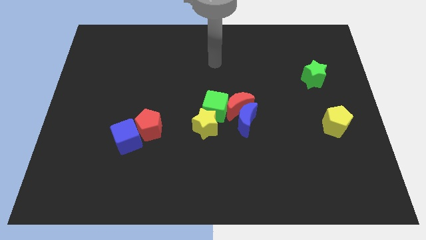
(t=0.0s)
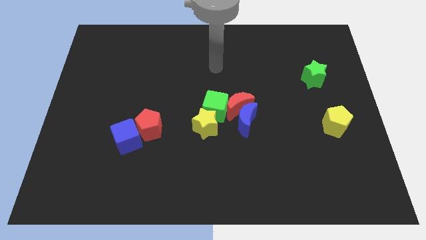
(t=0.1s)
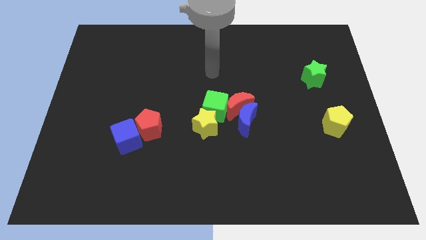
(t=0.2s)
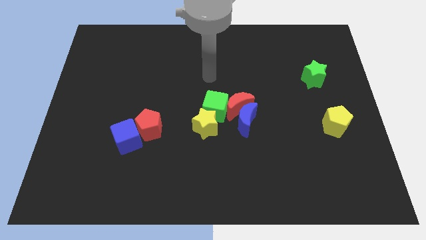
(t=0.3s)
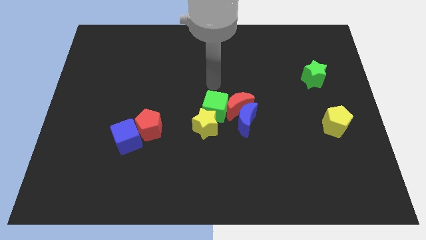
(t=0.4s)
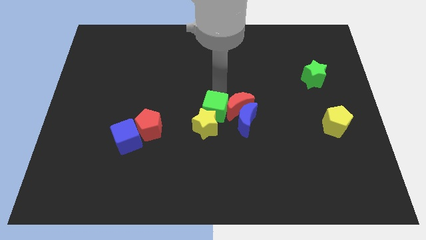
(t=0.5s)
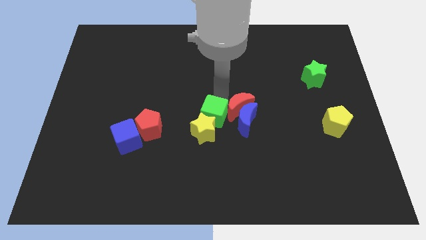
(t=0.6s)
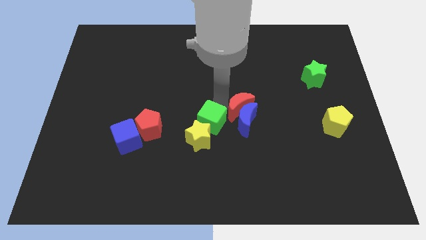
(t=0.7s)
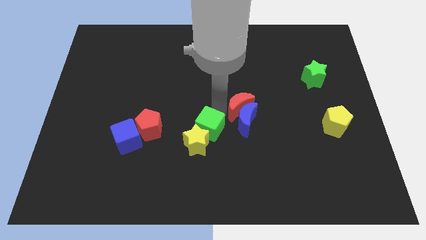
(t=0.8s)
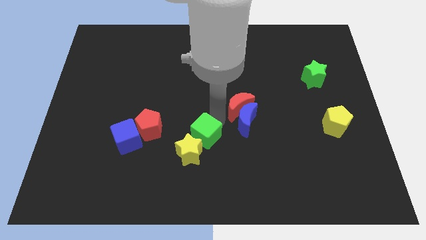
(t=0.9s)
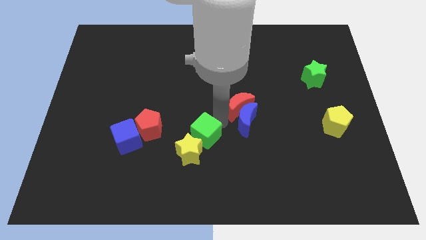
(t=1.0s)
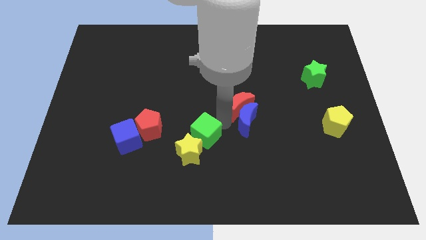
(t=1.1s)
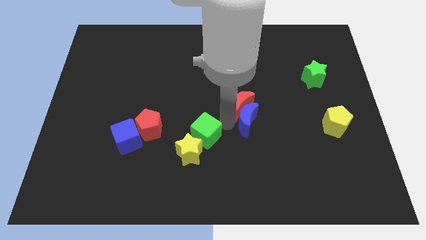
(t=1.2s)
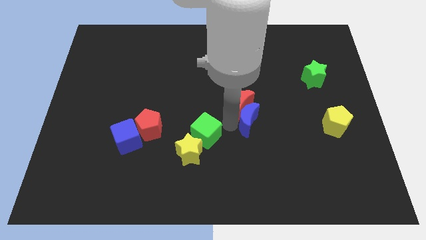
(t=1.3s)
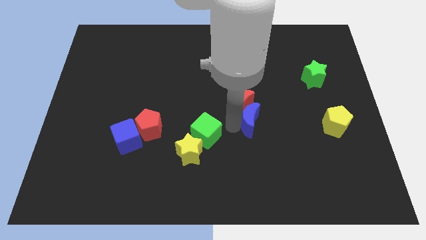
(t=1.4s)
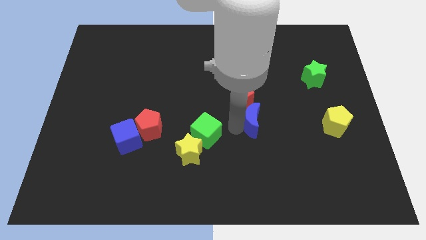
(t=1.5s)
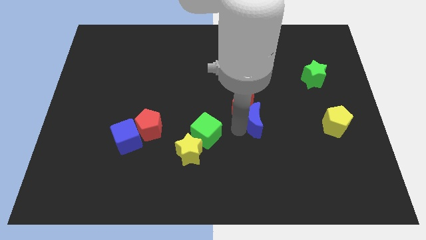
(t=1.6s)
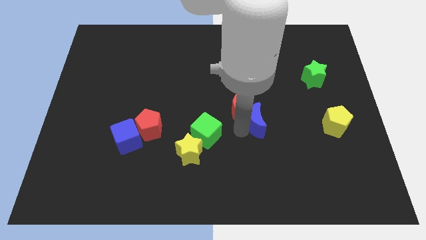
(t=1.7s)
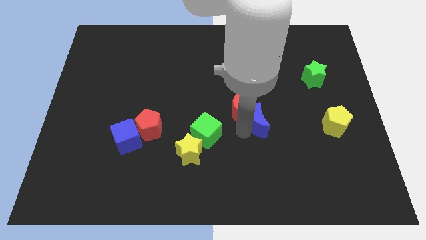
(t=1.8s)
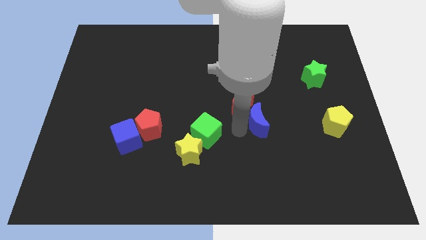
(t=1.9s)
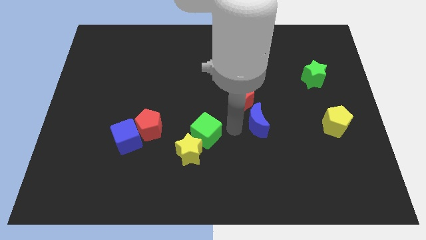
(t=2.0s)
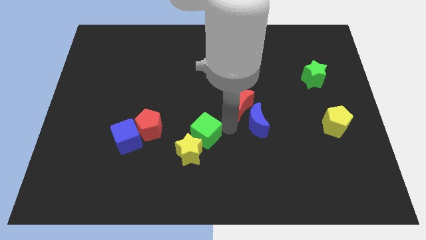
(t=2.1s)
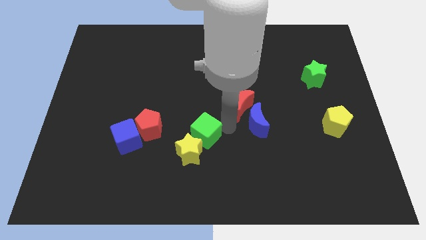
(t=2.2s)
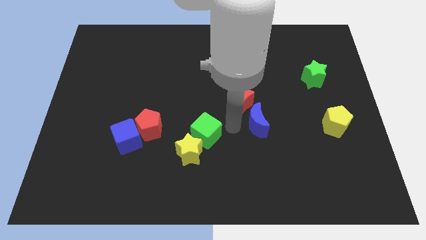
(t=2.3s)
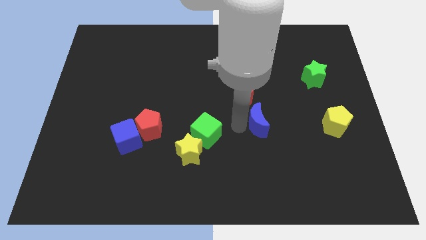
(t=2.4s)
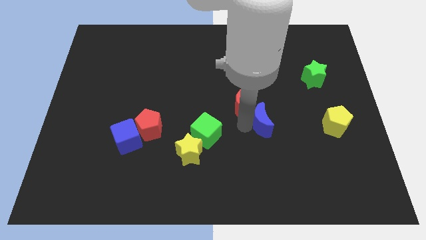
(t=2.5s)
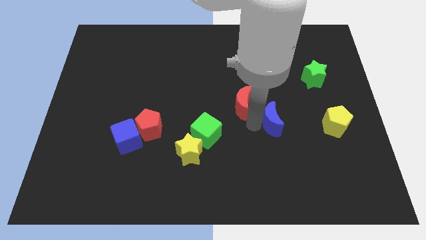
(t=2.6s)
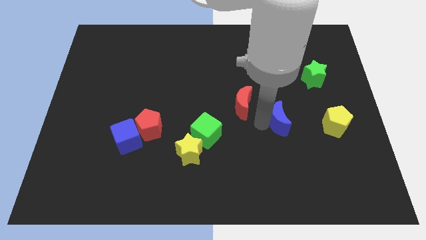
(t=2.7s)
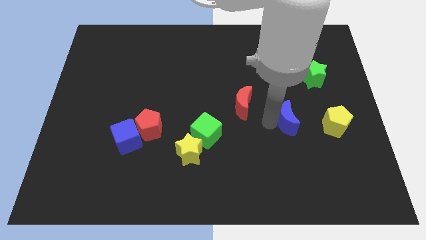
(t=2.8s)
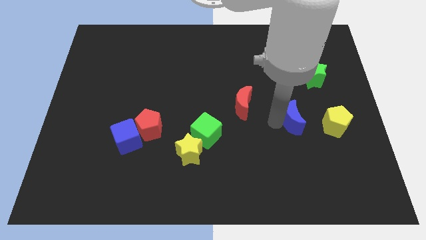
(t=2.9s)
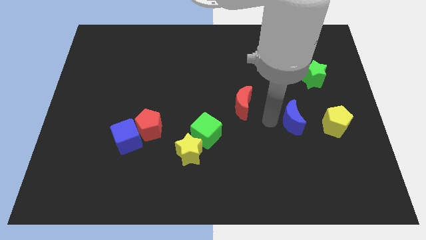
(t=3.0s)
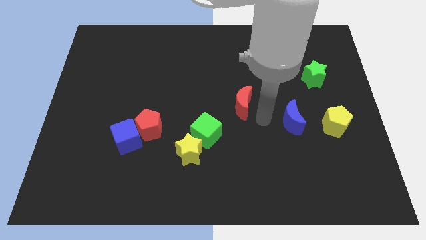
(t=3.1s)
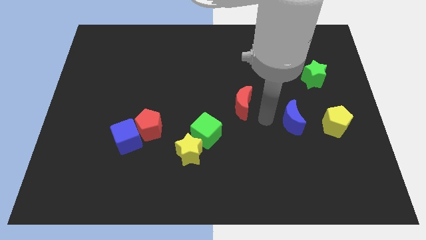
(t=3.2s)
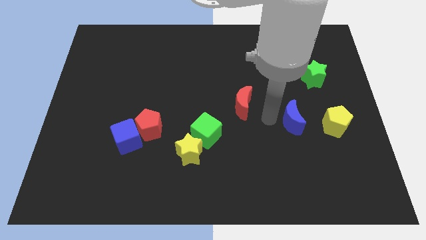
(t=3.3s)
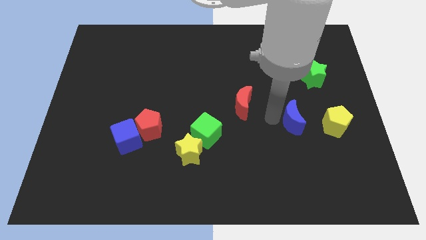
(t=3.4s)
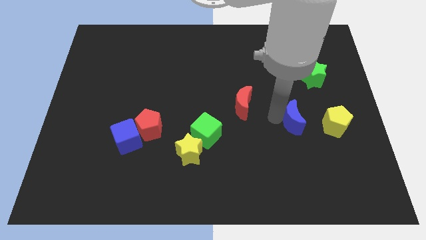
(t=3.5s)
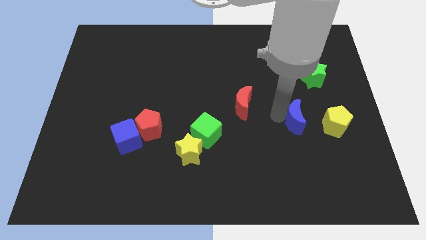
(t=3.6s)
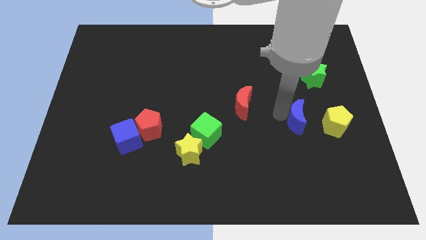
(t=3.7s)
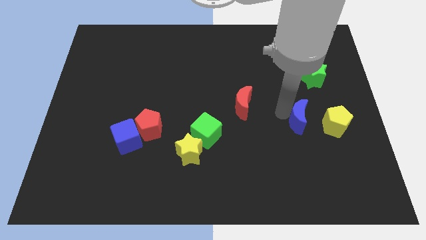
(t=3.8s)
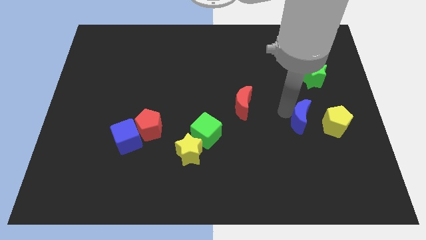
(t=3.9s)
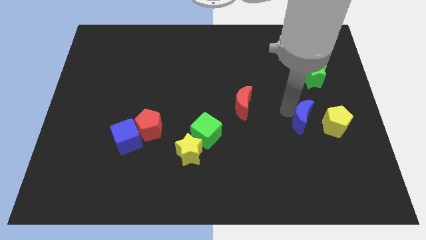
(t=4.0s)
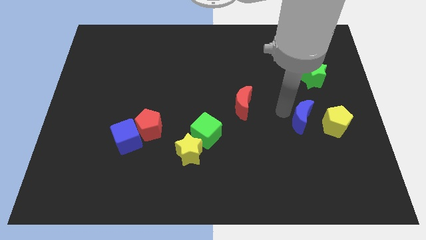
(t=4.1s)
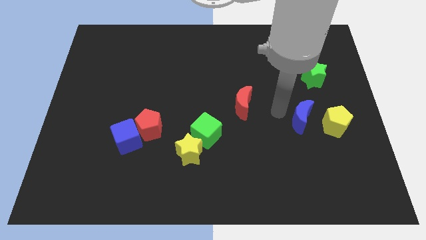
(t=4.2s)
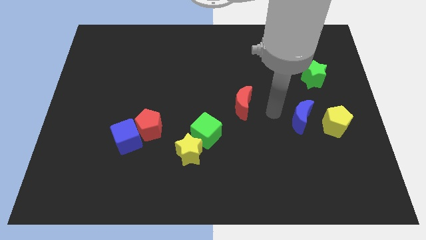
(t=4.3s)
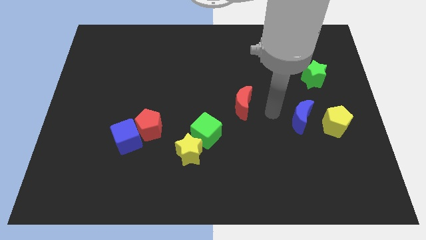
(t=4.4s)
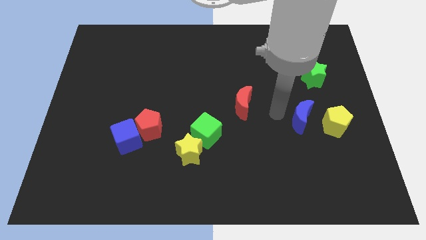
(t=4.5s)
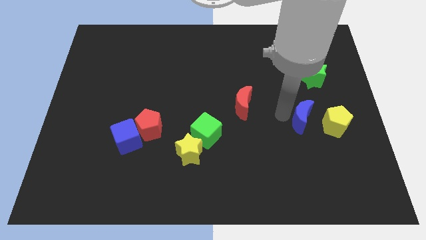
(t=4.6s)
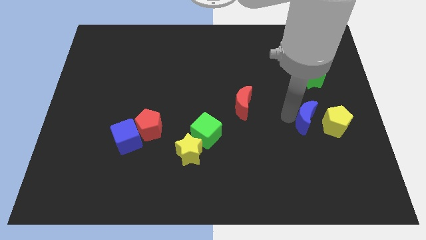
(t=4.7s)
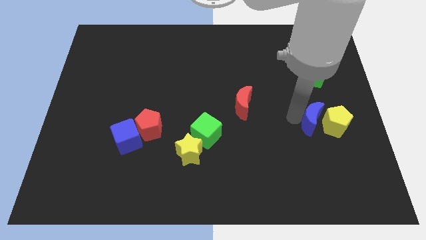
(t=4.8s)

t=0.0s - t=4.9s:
slide the blue moon close to the yellow pentagon

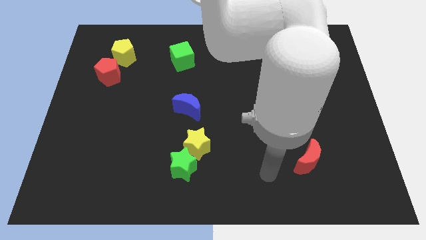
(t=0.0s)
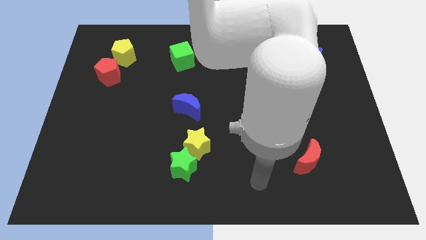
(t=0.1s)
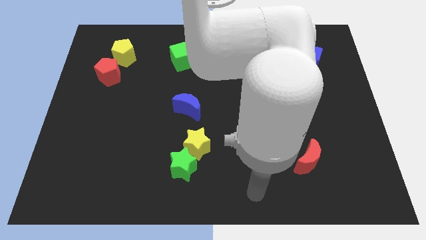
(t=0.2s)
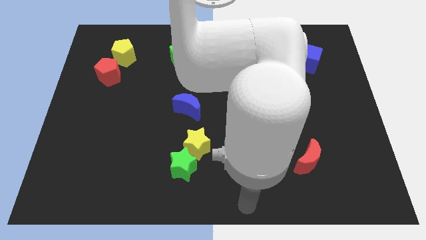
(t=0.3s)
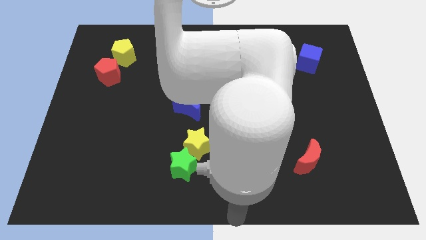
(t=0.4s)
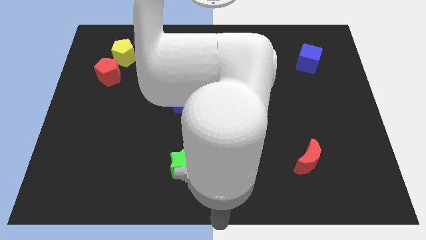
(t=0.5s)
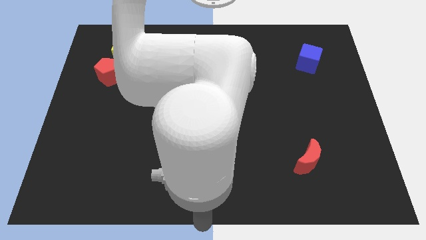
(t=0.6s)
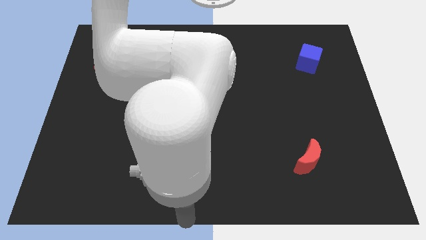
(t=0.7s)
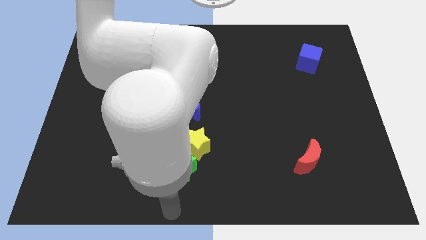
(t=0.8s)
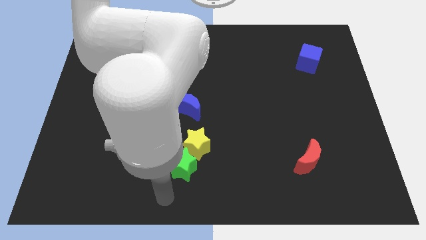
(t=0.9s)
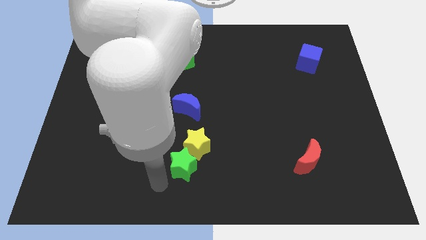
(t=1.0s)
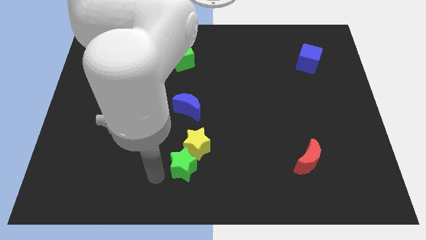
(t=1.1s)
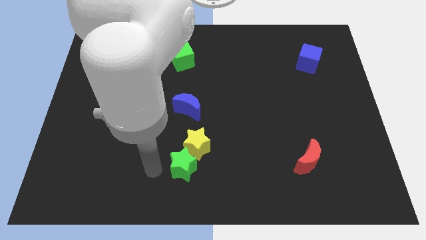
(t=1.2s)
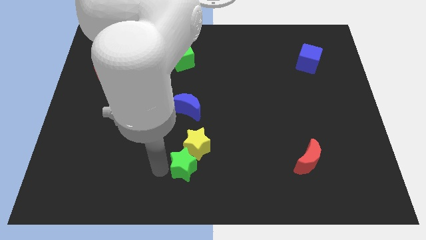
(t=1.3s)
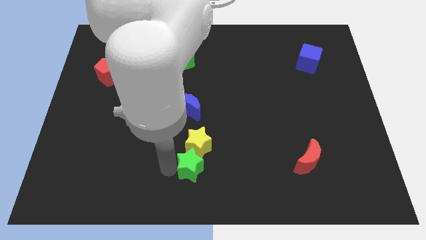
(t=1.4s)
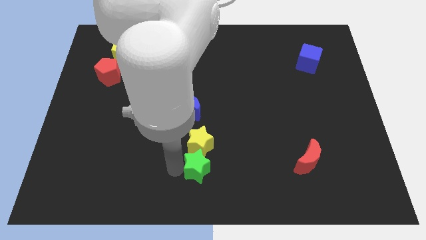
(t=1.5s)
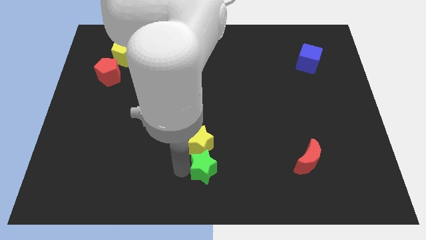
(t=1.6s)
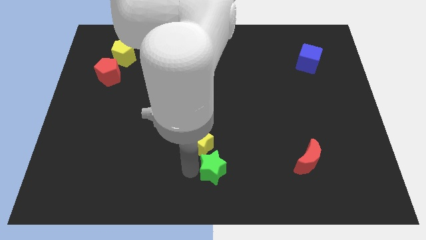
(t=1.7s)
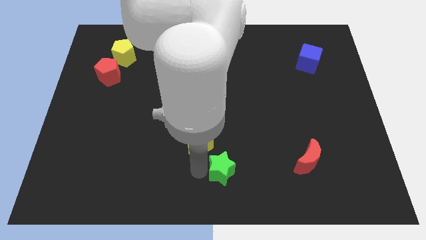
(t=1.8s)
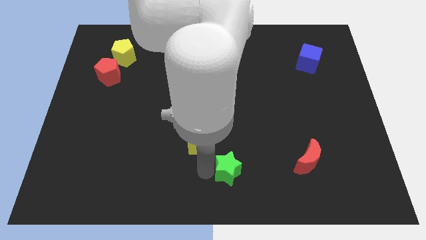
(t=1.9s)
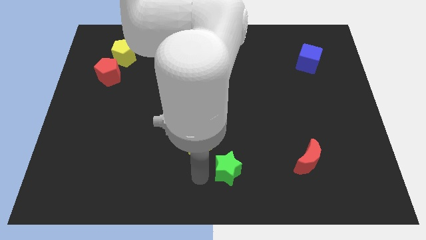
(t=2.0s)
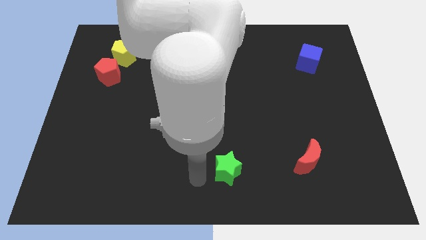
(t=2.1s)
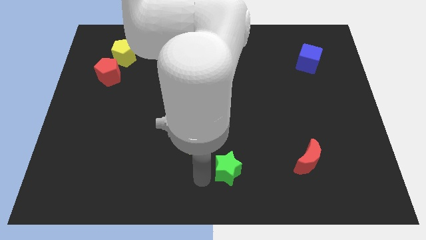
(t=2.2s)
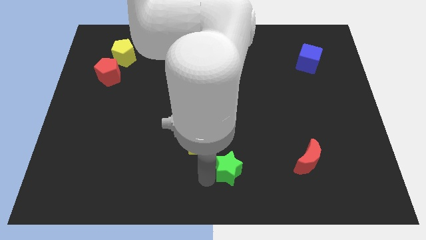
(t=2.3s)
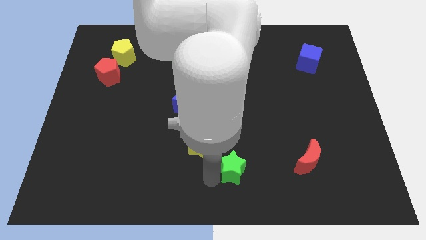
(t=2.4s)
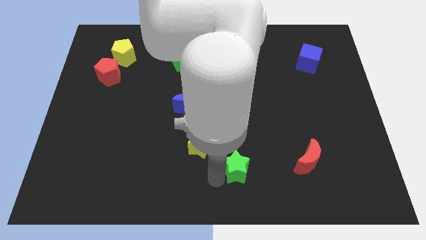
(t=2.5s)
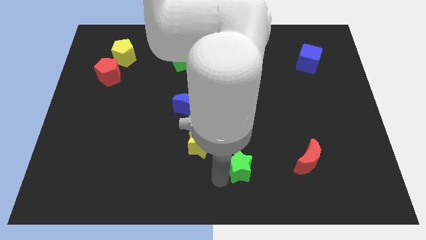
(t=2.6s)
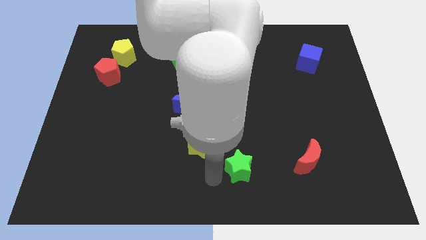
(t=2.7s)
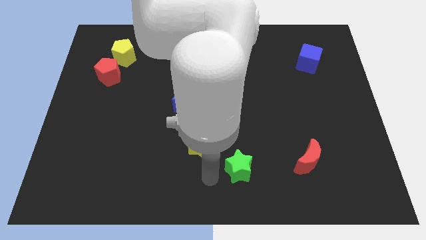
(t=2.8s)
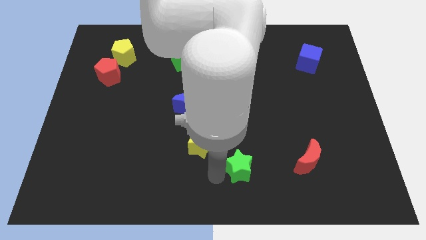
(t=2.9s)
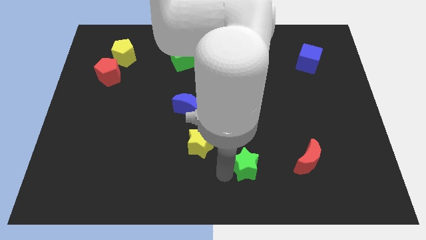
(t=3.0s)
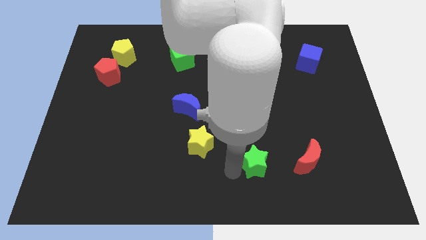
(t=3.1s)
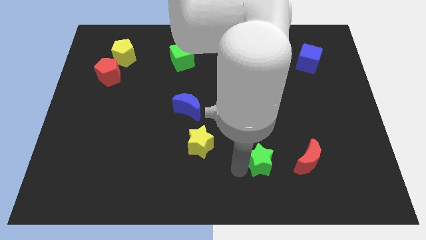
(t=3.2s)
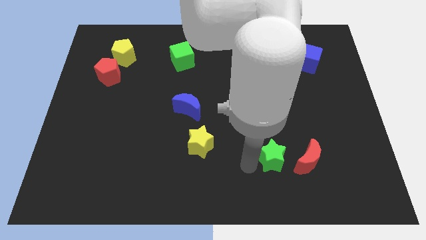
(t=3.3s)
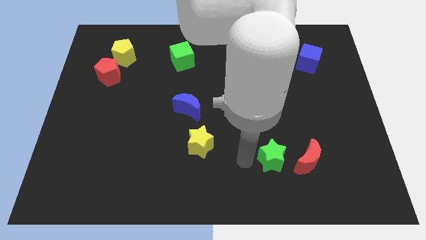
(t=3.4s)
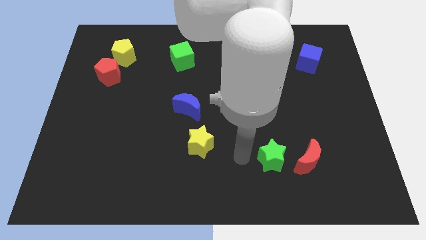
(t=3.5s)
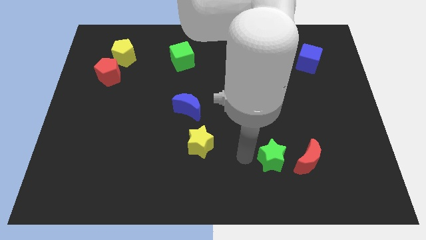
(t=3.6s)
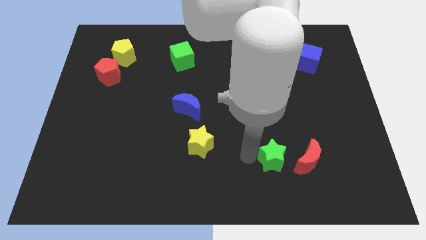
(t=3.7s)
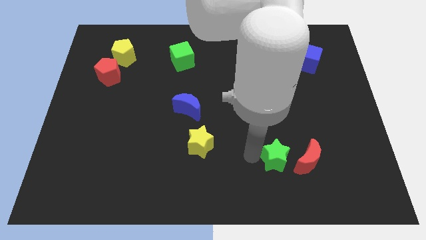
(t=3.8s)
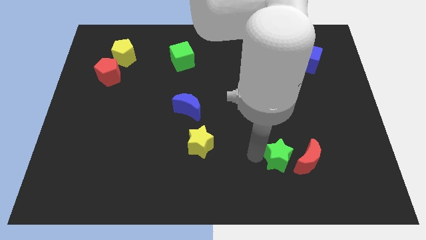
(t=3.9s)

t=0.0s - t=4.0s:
slide the green star close to the red moon
